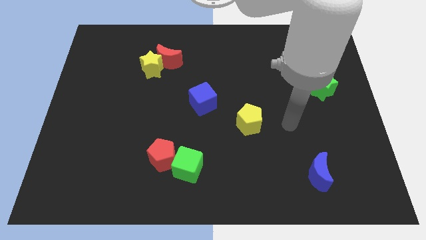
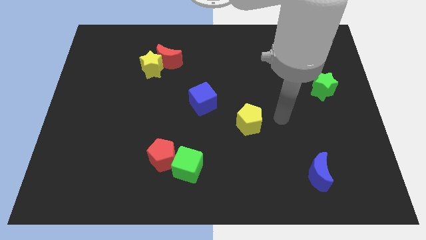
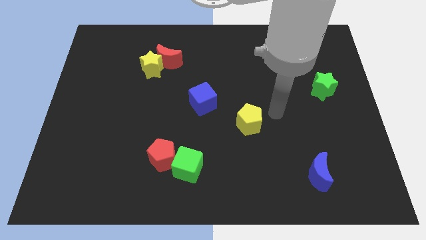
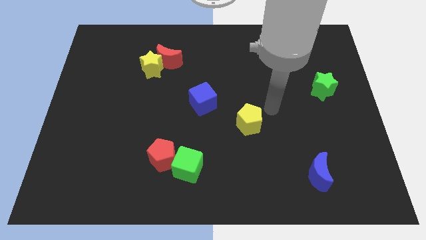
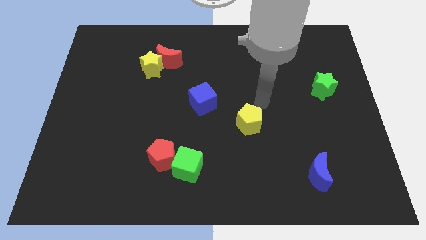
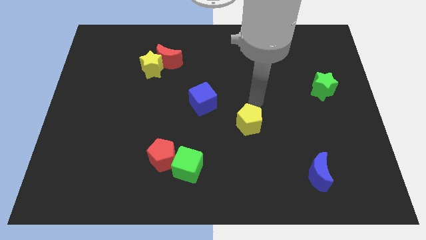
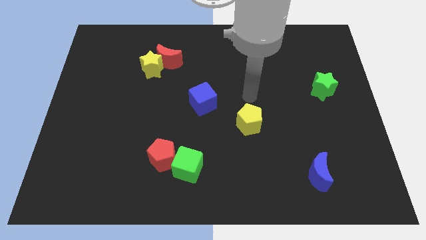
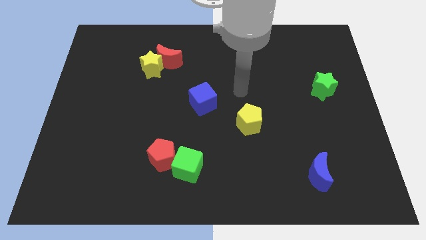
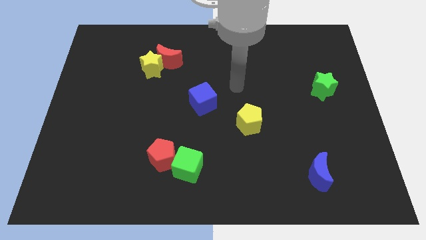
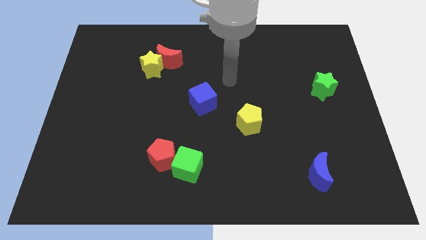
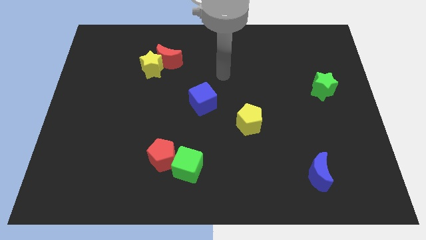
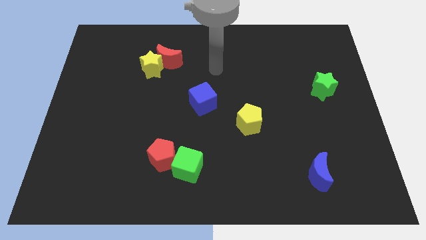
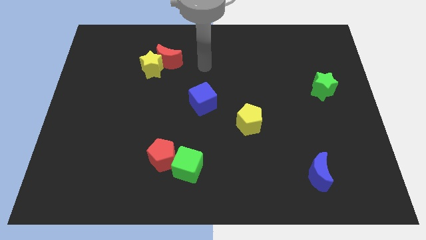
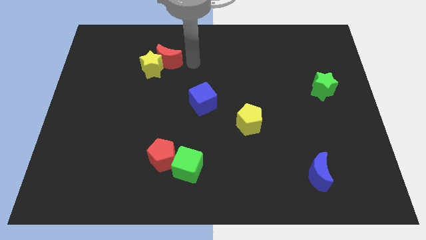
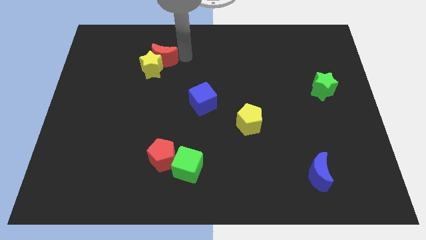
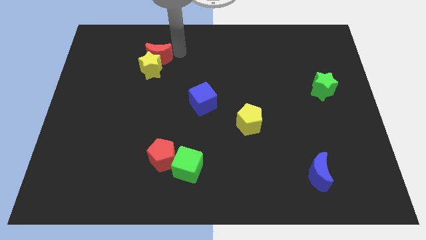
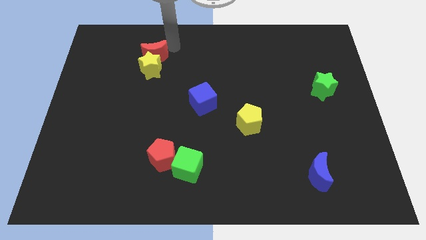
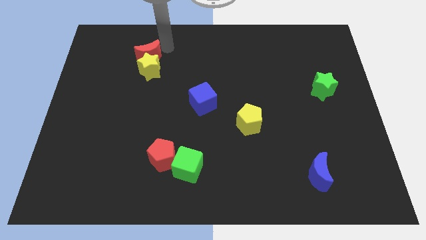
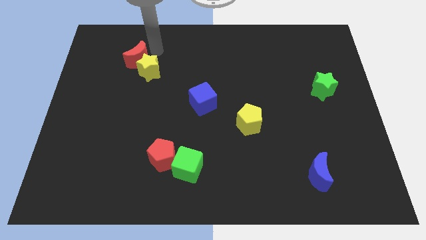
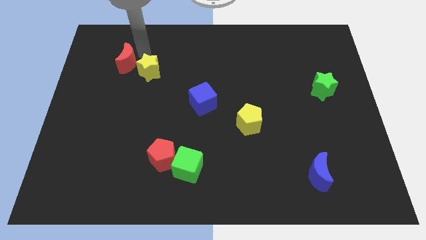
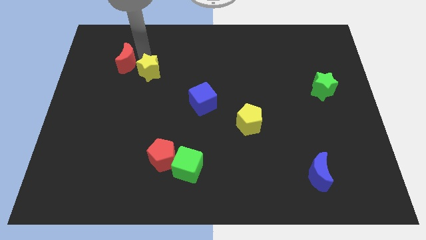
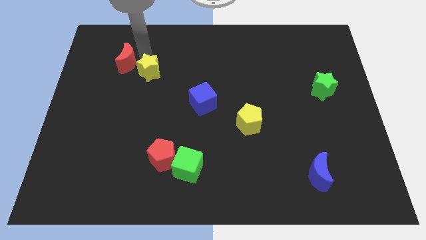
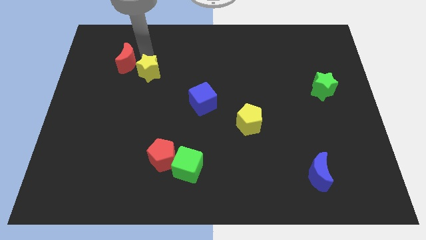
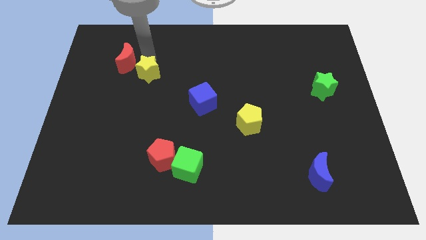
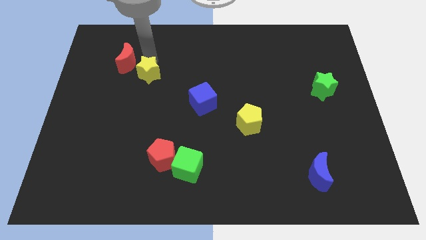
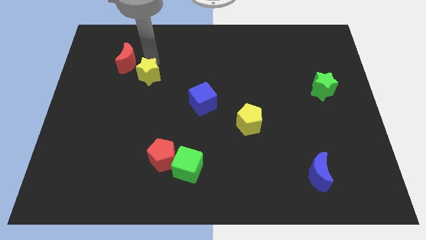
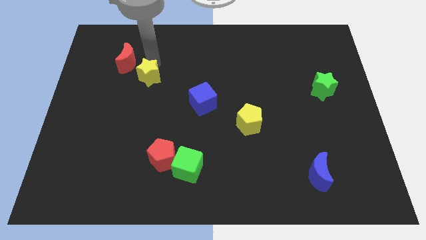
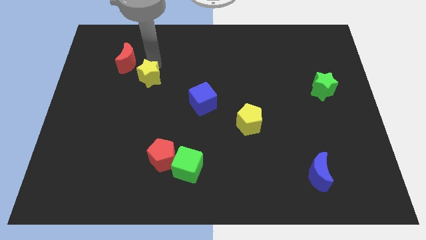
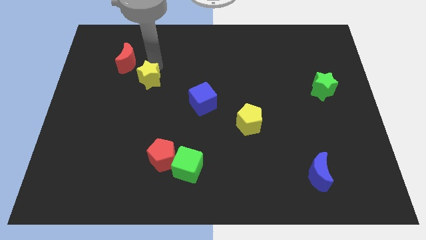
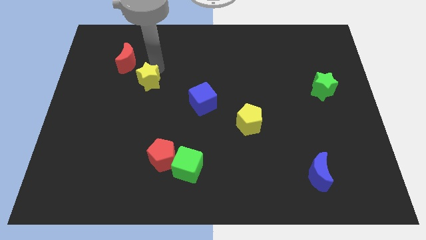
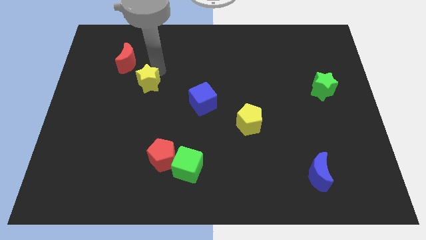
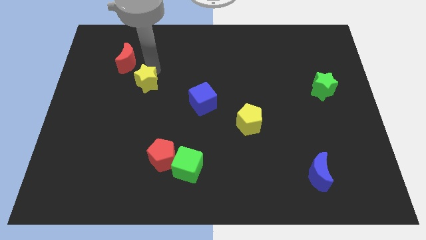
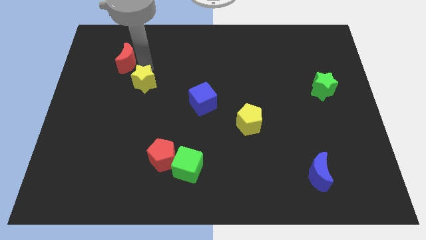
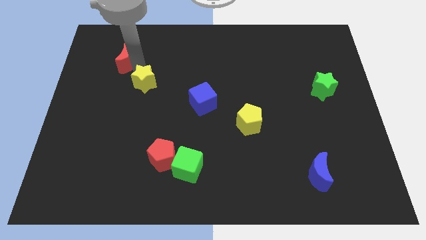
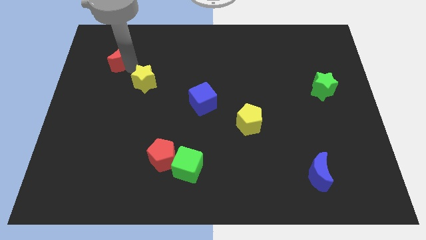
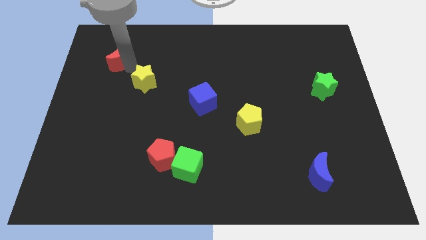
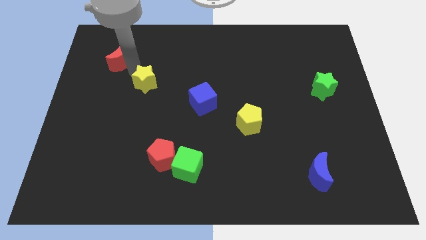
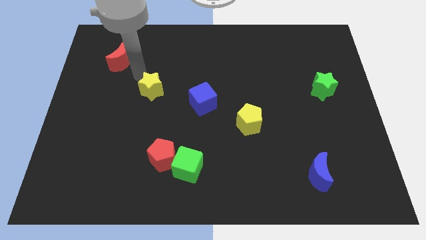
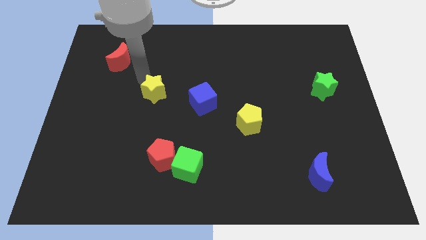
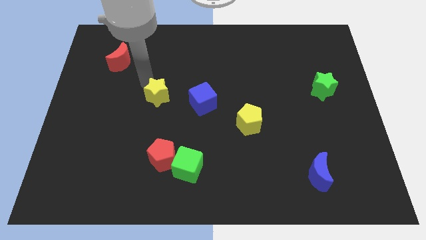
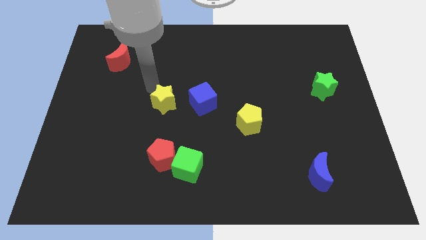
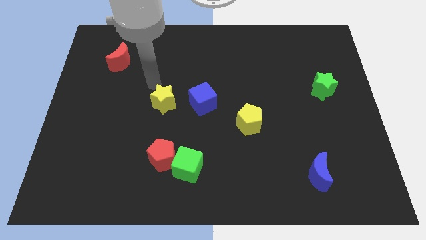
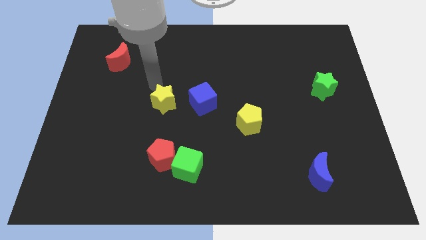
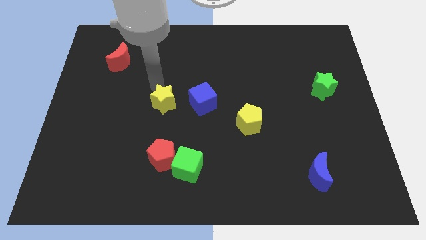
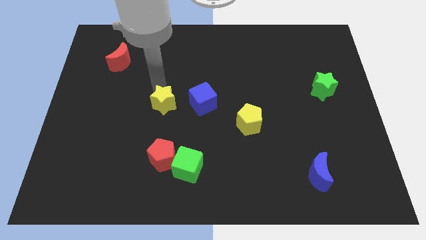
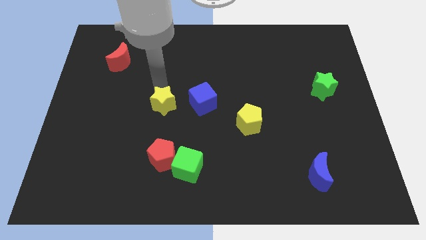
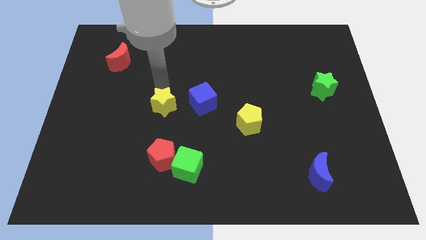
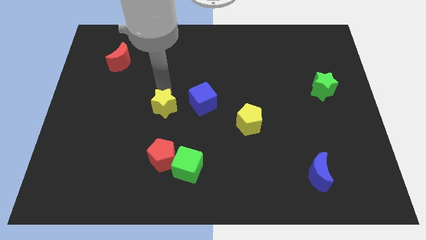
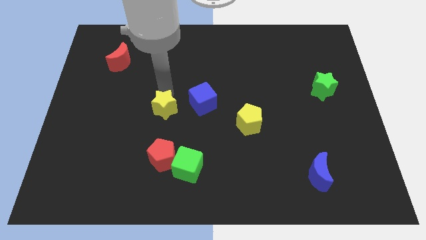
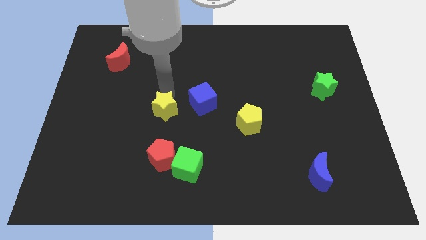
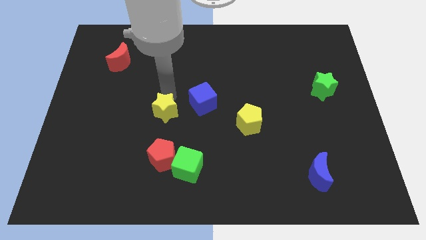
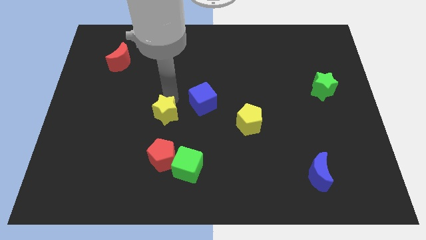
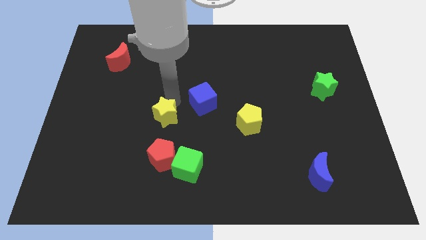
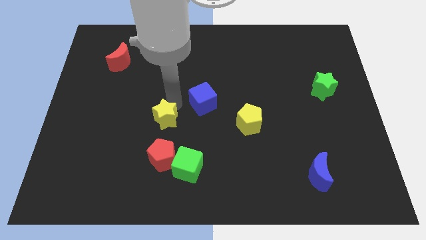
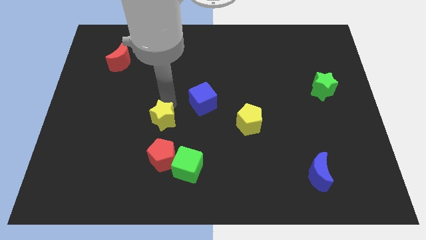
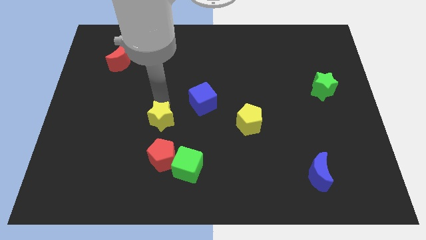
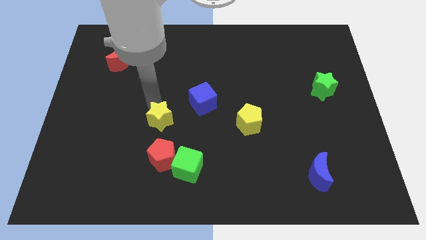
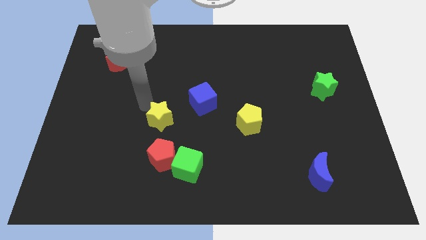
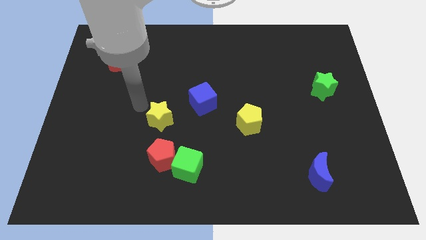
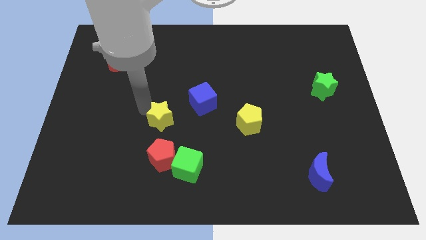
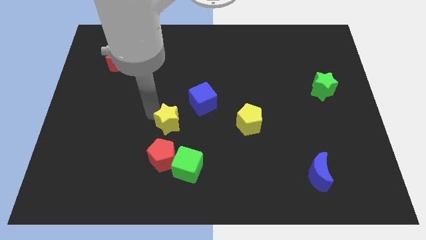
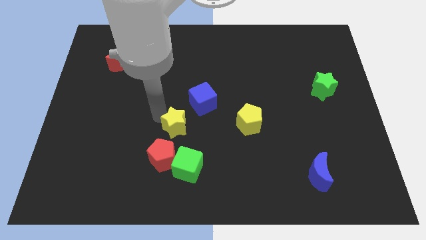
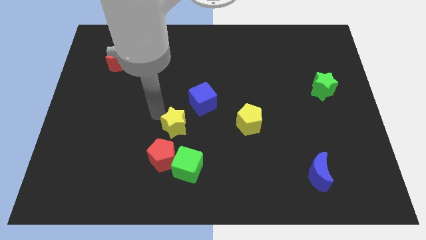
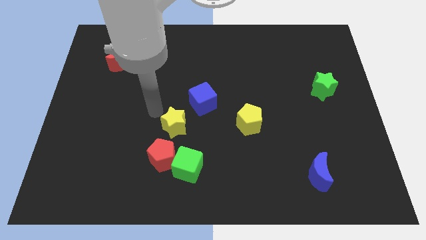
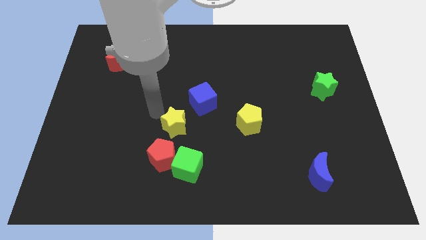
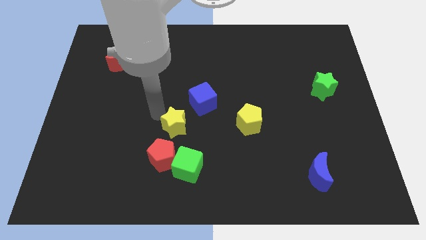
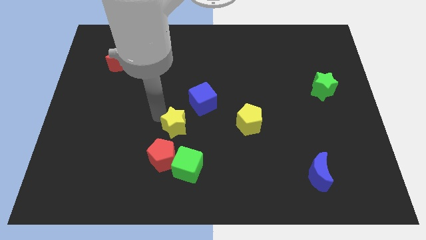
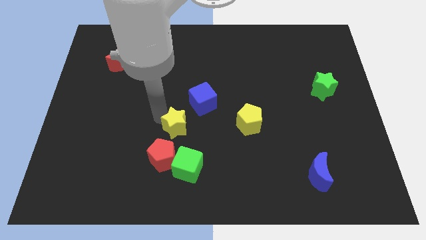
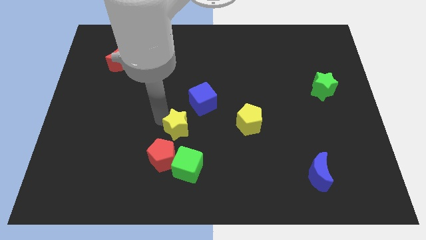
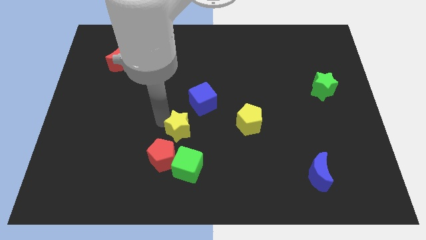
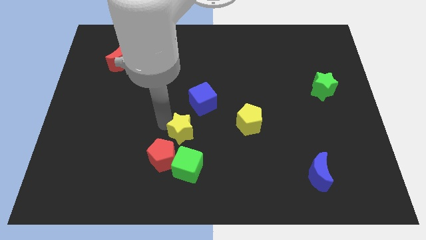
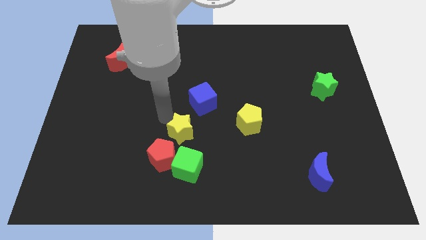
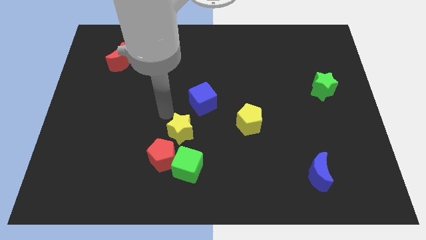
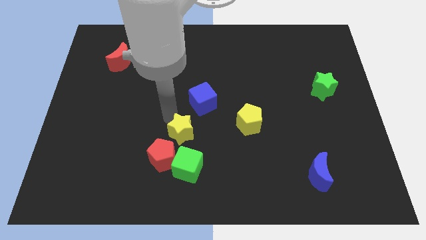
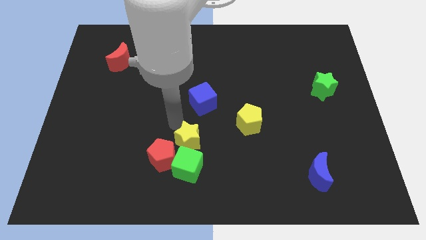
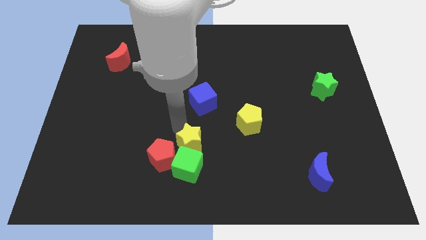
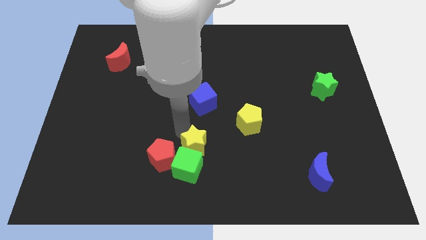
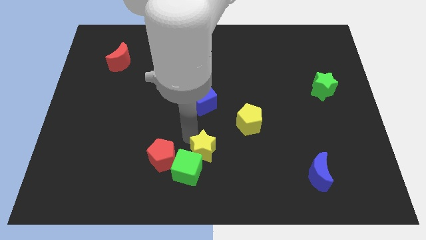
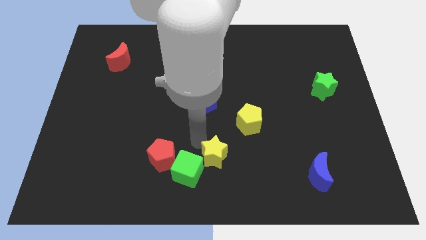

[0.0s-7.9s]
put the yellow star to the bottom
